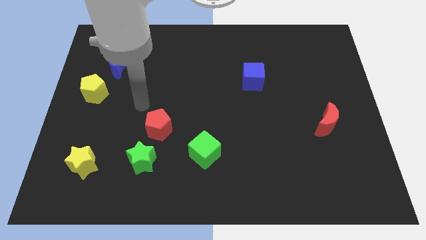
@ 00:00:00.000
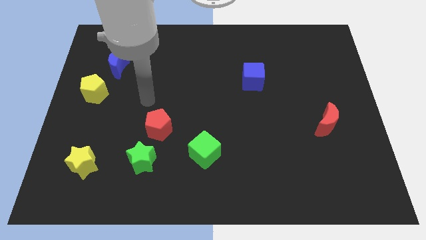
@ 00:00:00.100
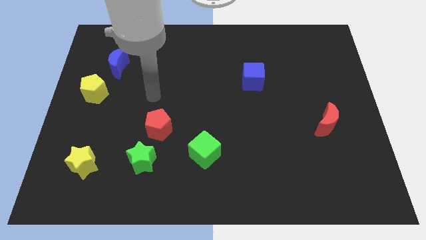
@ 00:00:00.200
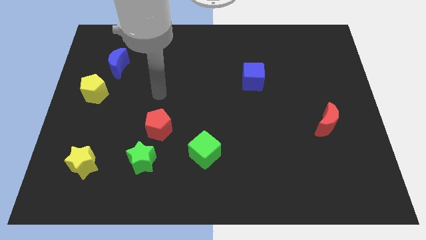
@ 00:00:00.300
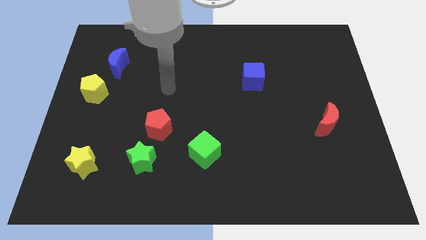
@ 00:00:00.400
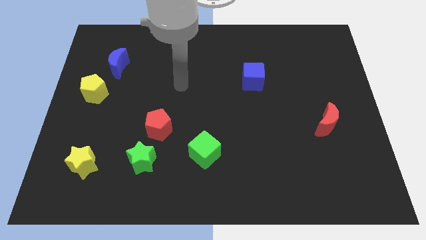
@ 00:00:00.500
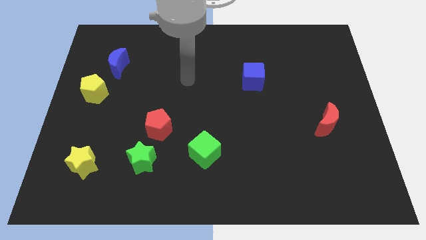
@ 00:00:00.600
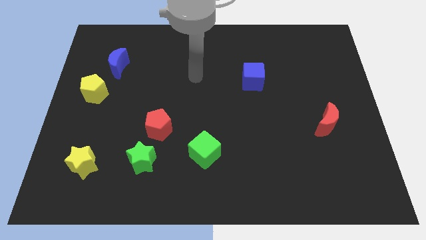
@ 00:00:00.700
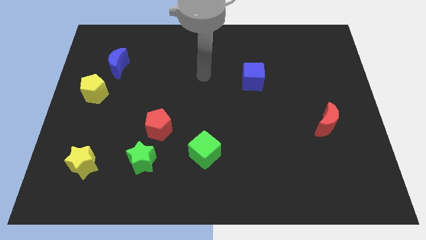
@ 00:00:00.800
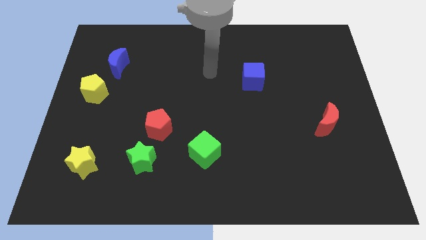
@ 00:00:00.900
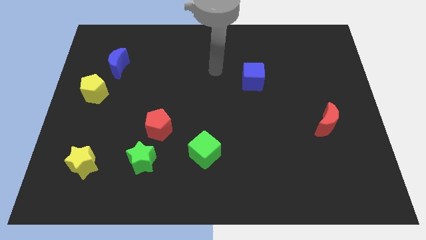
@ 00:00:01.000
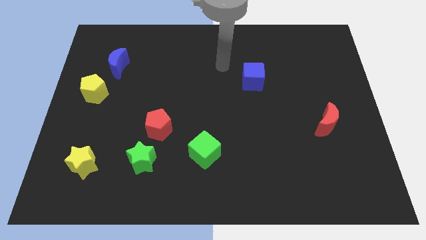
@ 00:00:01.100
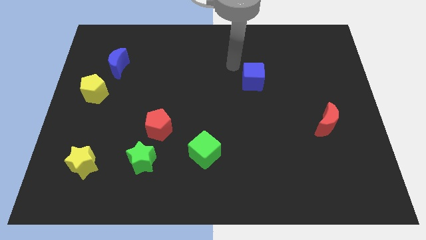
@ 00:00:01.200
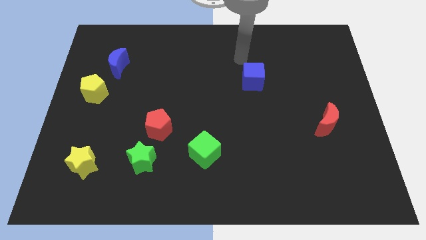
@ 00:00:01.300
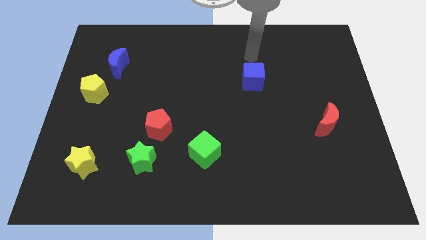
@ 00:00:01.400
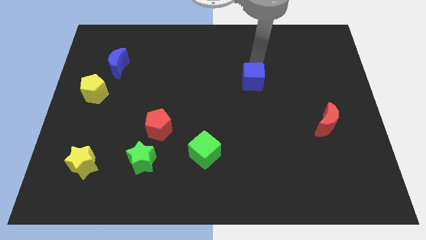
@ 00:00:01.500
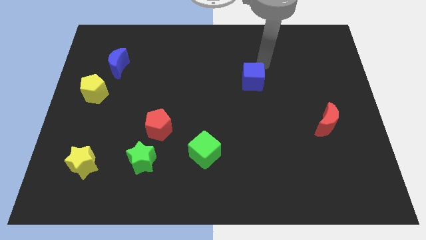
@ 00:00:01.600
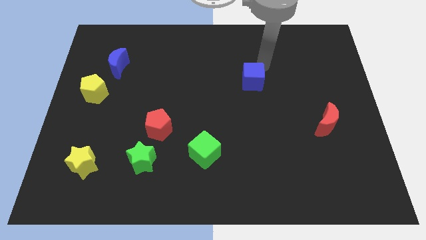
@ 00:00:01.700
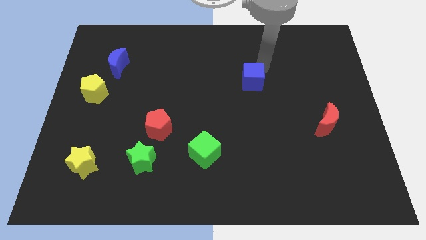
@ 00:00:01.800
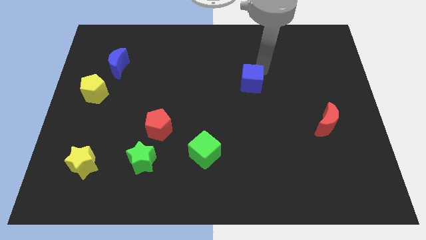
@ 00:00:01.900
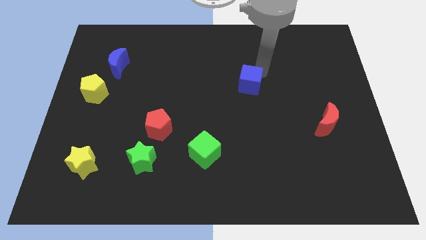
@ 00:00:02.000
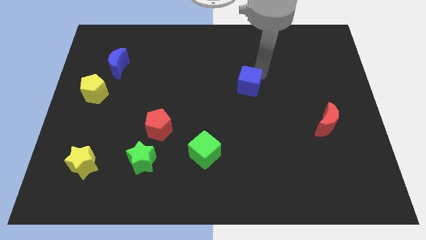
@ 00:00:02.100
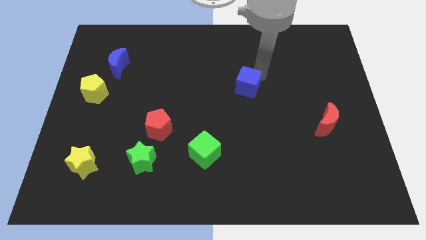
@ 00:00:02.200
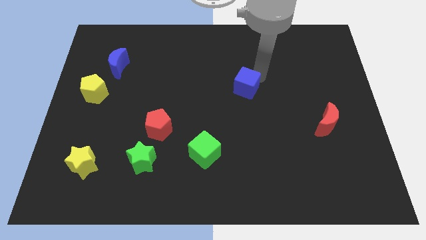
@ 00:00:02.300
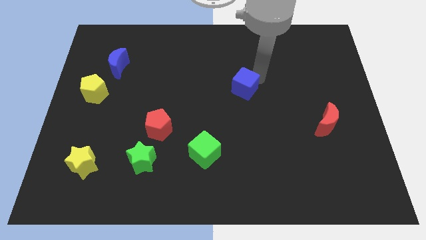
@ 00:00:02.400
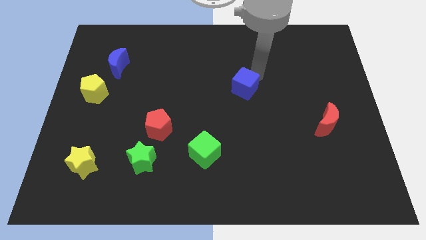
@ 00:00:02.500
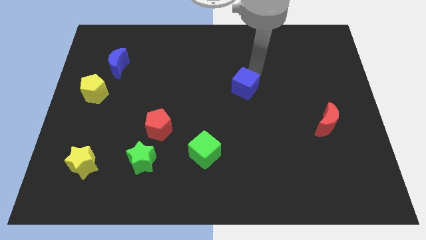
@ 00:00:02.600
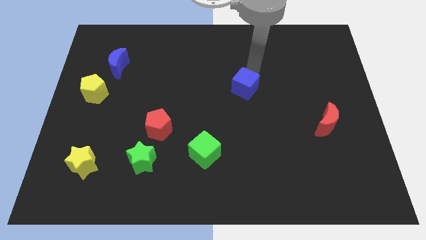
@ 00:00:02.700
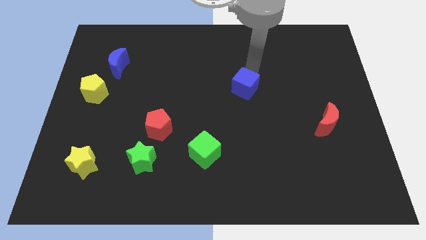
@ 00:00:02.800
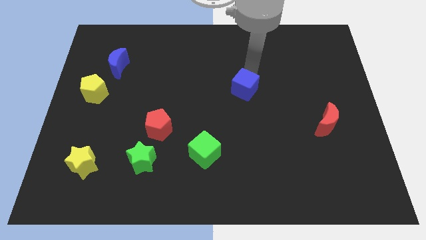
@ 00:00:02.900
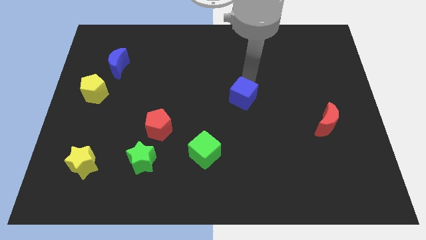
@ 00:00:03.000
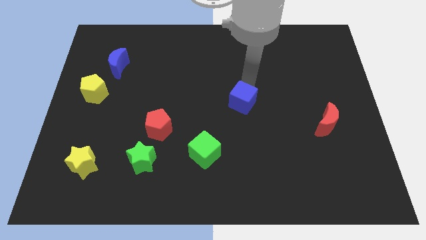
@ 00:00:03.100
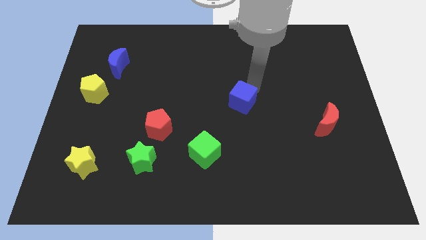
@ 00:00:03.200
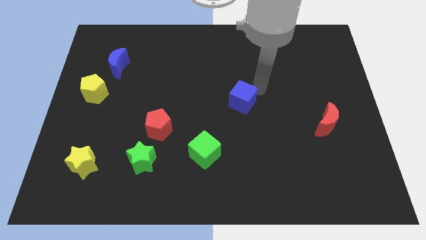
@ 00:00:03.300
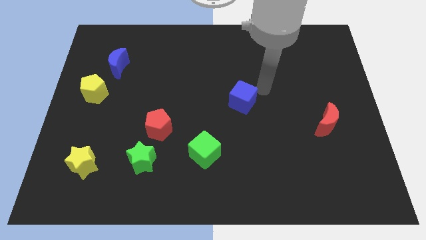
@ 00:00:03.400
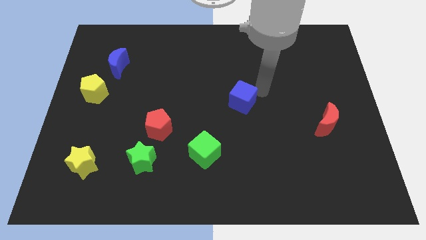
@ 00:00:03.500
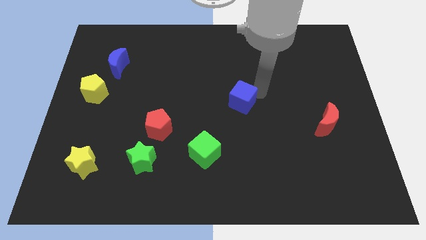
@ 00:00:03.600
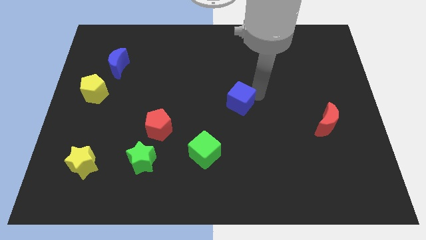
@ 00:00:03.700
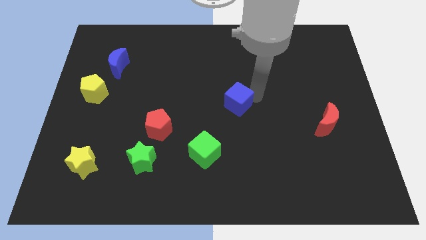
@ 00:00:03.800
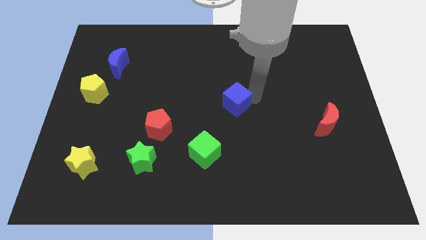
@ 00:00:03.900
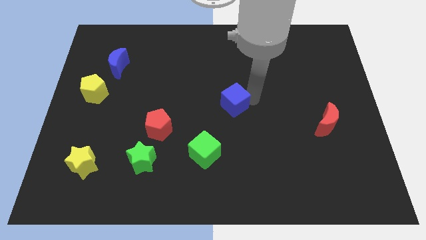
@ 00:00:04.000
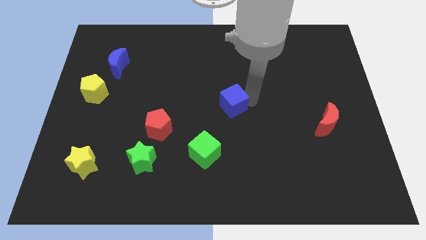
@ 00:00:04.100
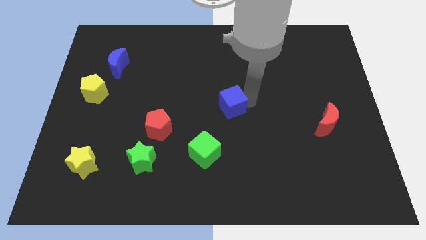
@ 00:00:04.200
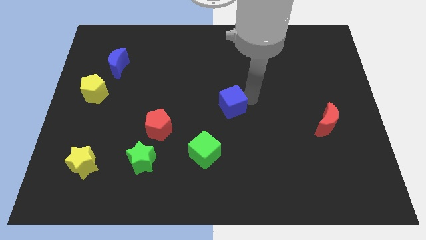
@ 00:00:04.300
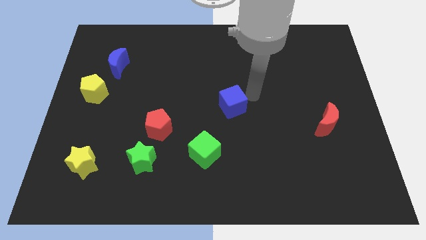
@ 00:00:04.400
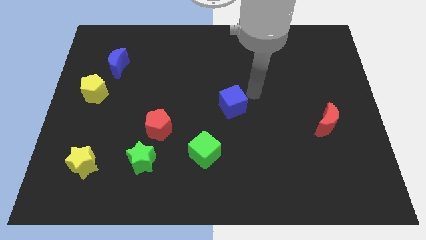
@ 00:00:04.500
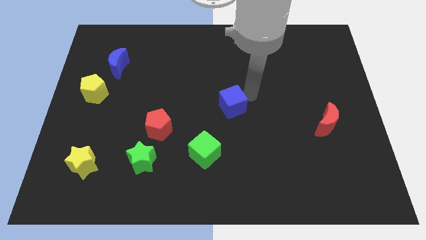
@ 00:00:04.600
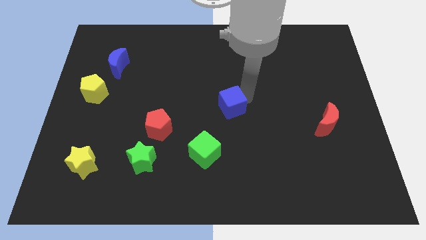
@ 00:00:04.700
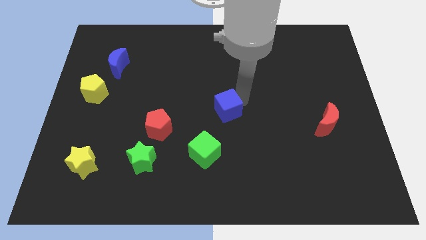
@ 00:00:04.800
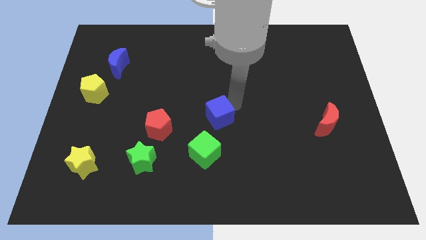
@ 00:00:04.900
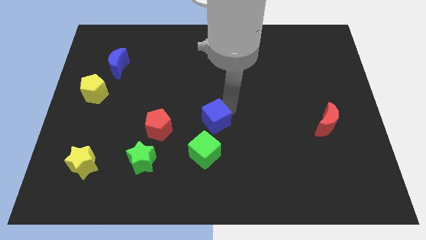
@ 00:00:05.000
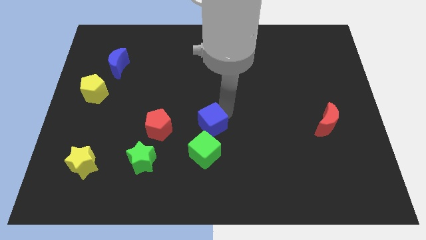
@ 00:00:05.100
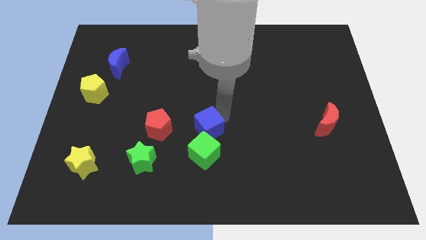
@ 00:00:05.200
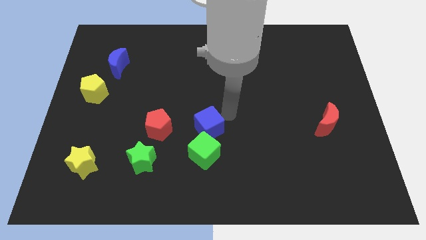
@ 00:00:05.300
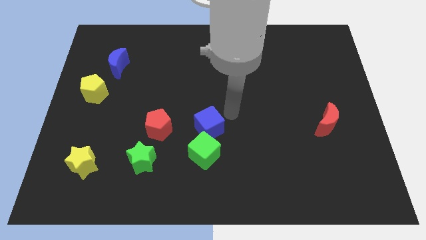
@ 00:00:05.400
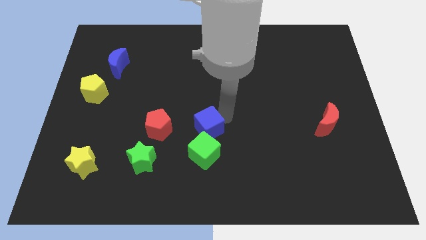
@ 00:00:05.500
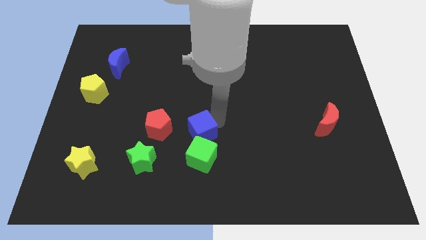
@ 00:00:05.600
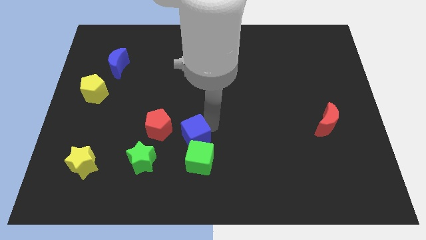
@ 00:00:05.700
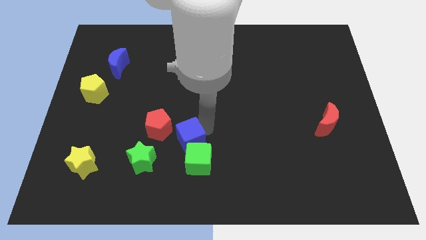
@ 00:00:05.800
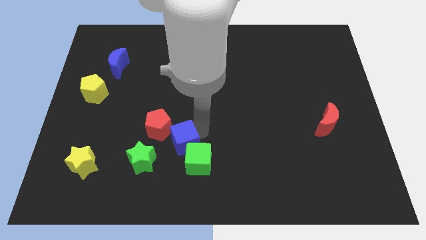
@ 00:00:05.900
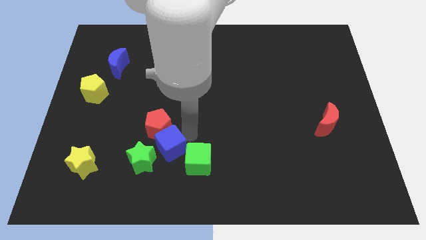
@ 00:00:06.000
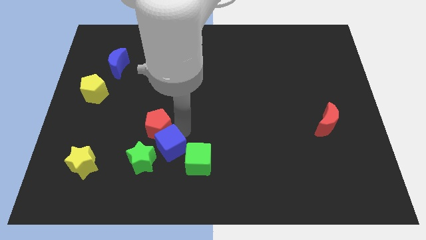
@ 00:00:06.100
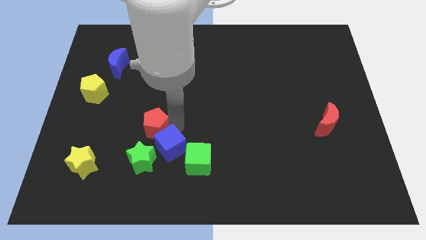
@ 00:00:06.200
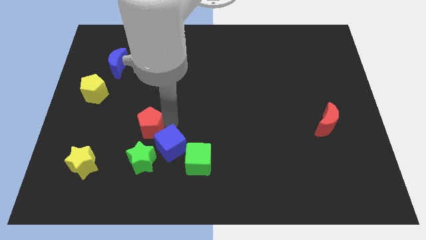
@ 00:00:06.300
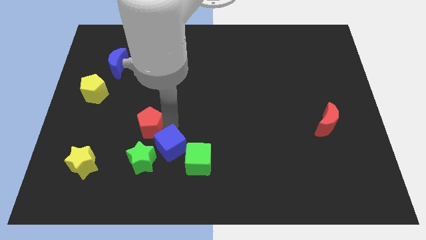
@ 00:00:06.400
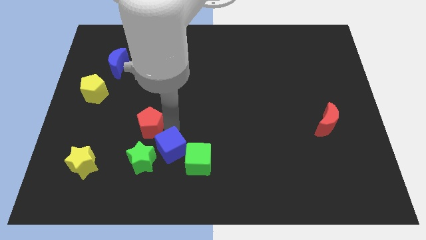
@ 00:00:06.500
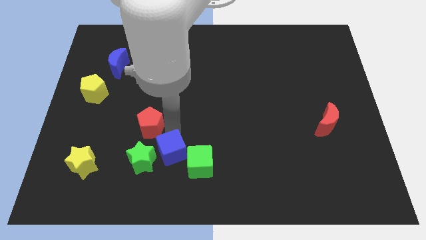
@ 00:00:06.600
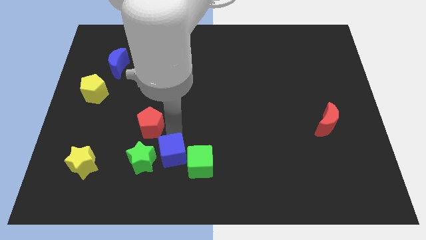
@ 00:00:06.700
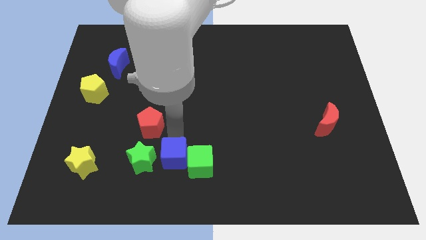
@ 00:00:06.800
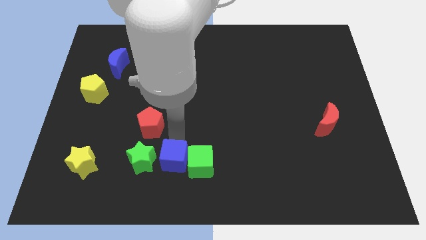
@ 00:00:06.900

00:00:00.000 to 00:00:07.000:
put the blue cube to the bottom left of the green cube
